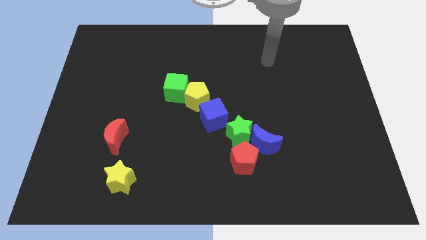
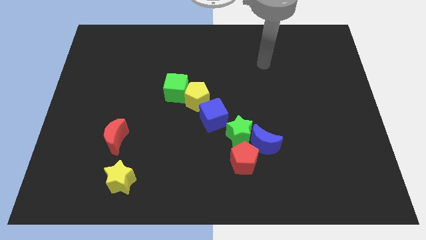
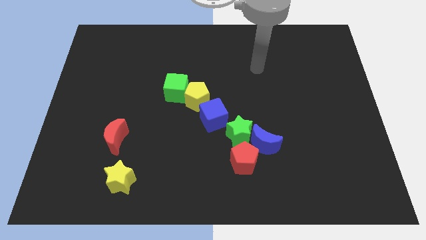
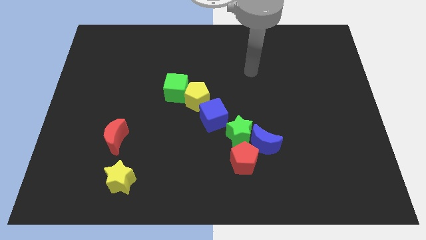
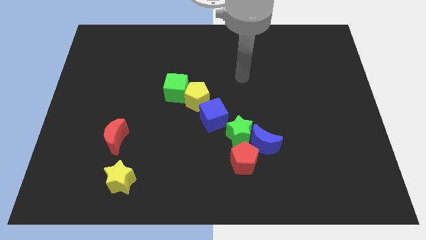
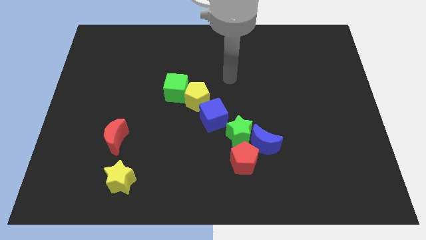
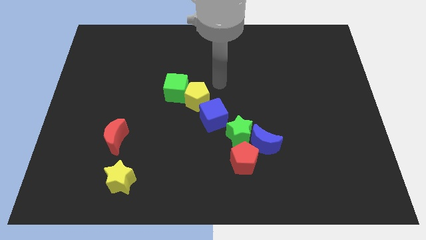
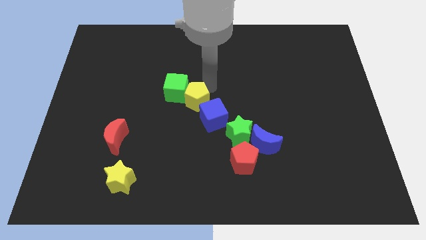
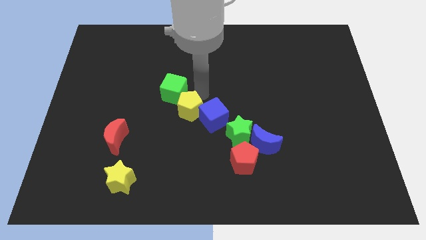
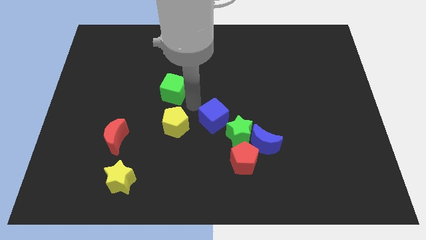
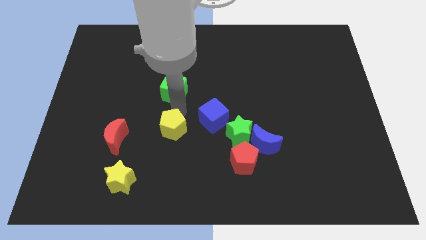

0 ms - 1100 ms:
separate the green cube from the yellow pentagon

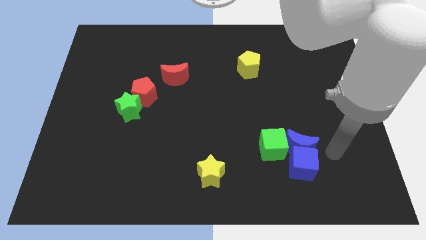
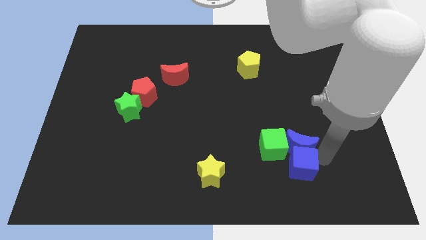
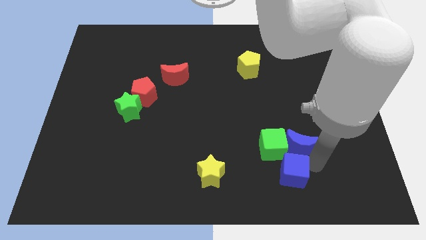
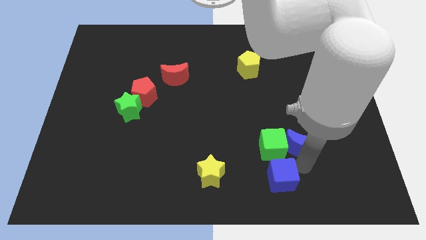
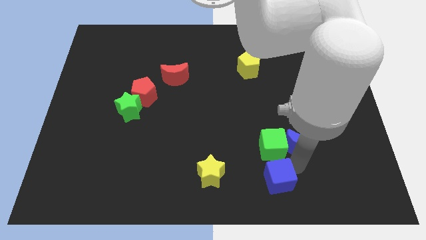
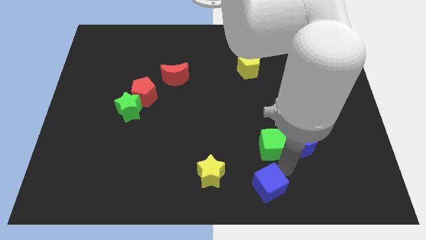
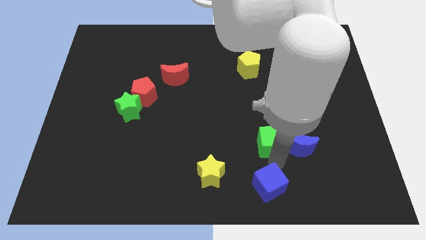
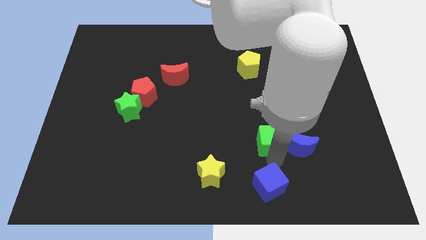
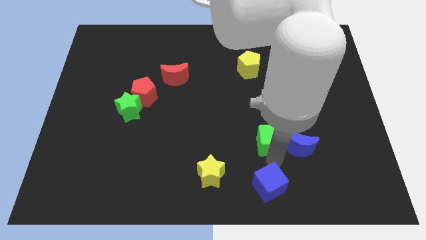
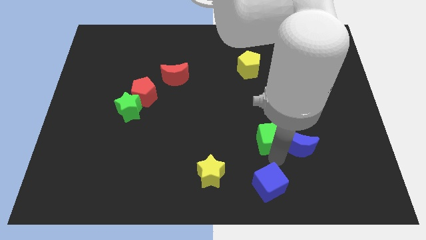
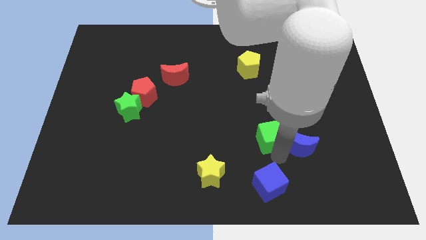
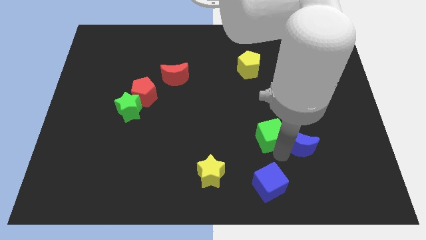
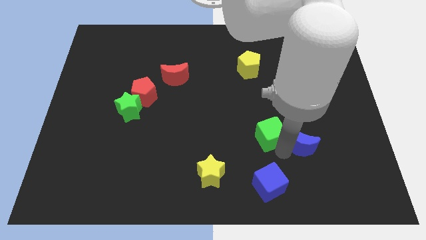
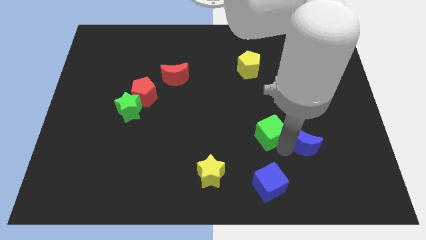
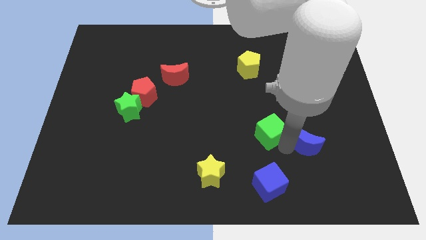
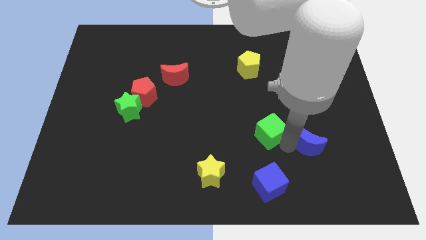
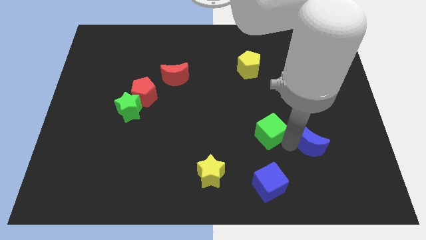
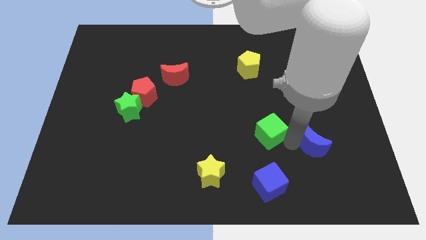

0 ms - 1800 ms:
separate the blue moon from the blue cube and green cube

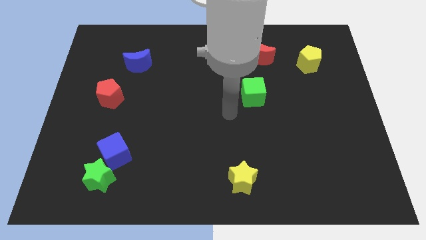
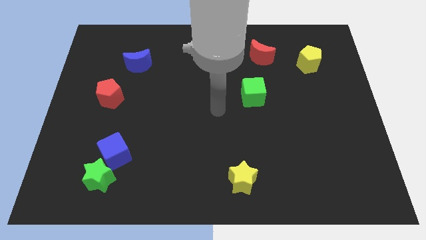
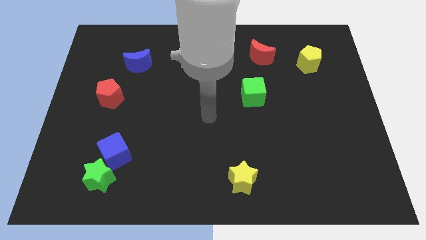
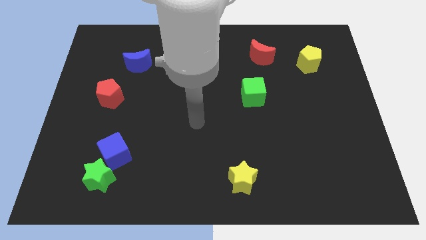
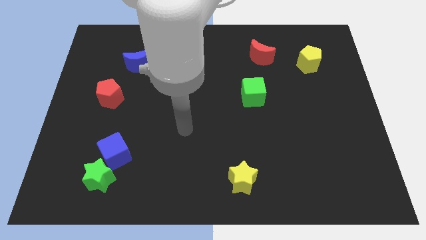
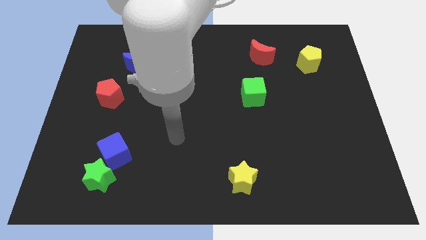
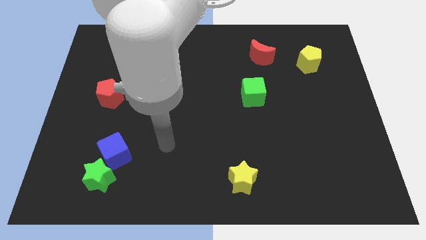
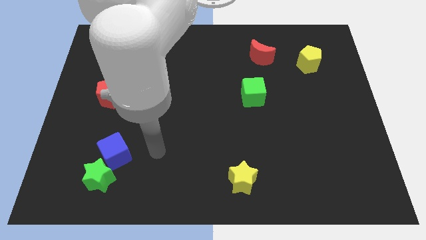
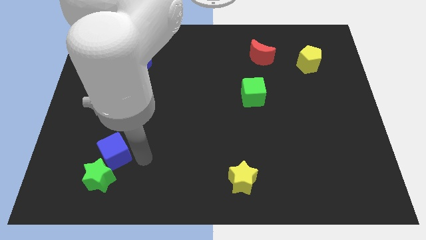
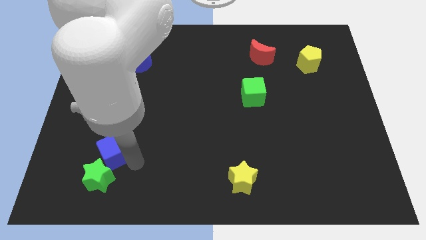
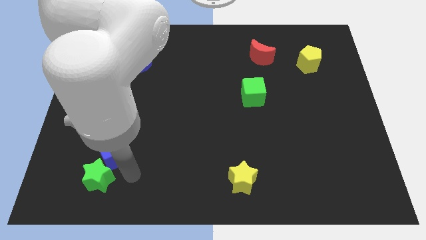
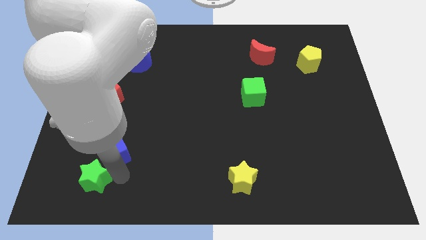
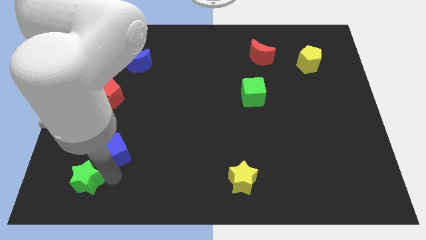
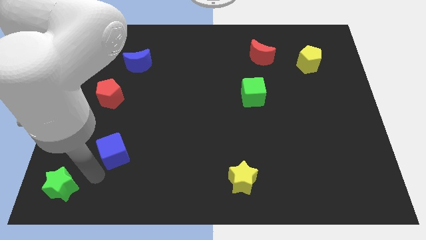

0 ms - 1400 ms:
move the blue cube away from the green star

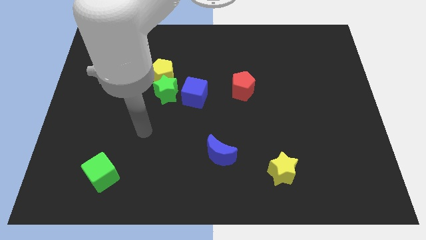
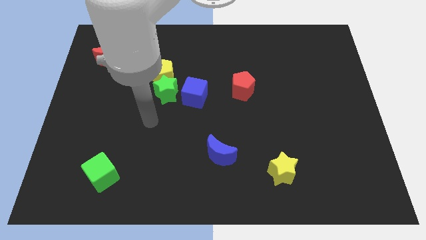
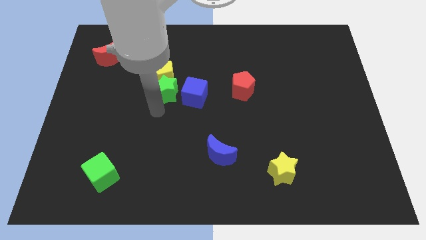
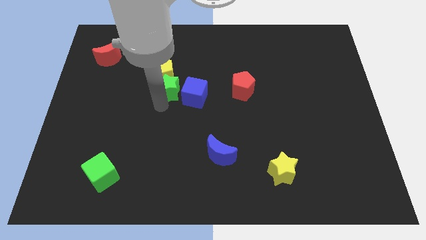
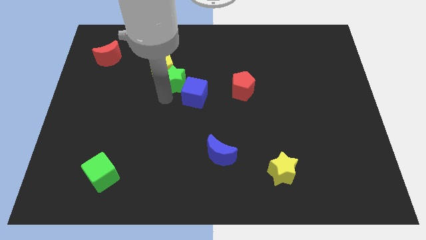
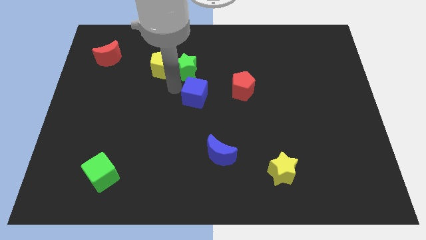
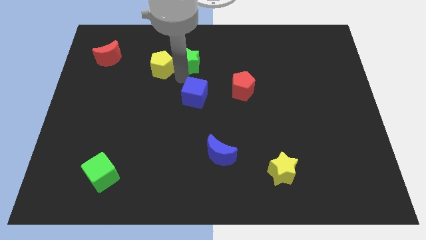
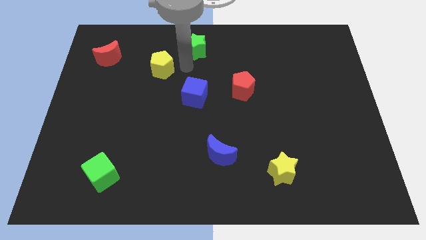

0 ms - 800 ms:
pull the yellow pentagon apart from the green star

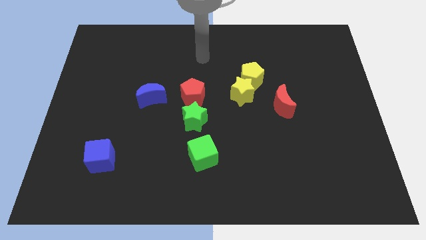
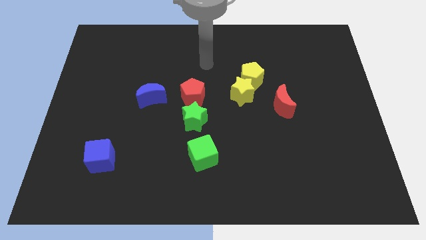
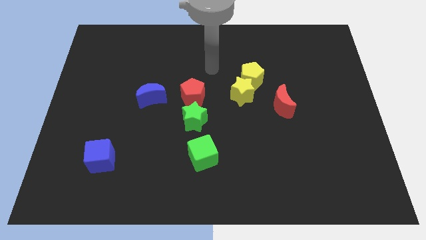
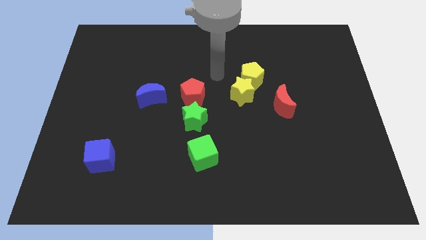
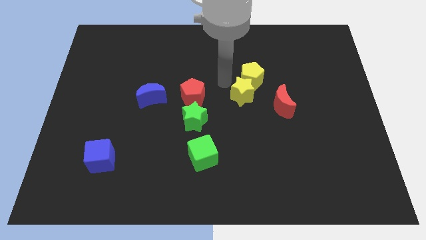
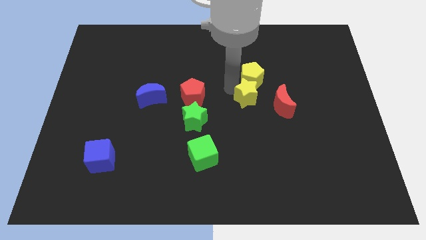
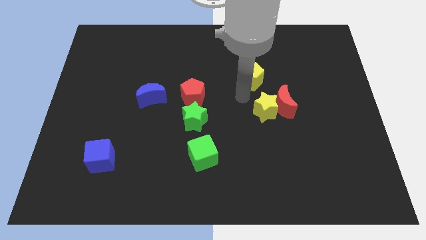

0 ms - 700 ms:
move the yellow pentagon away from the yellow star

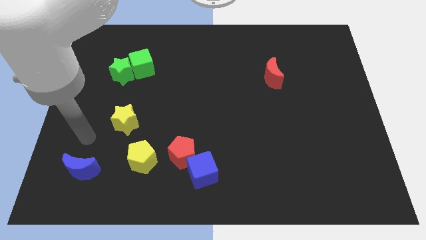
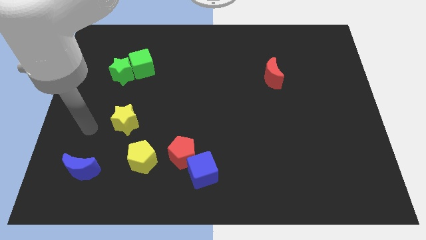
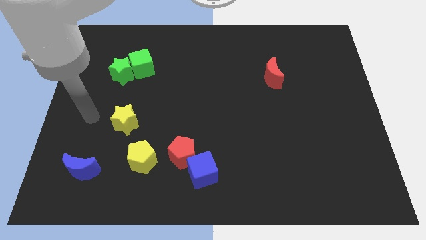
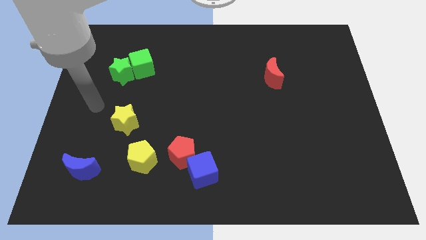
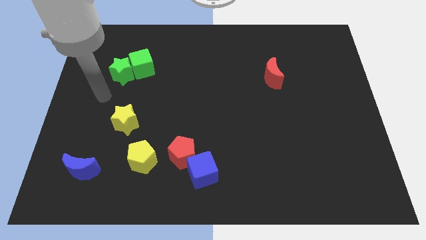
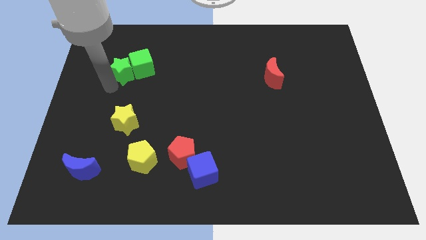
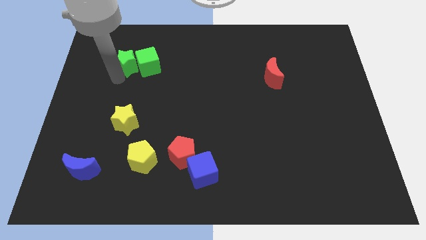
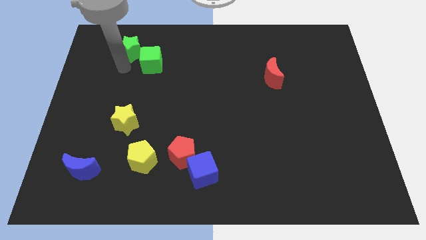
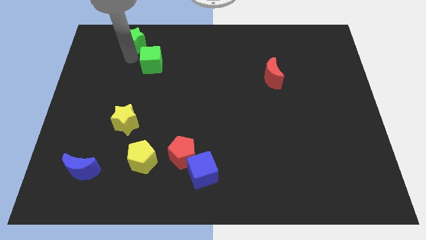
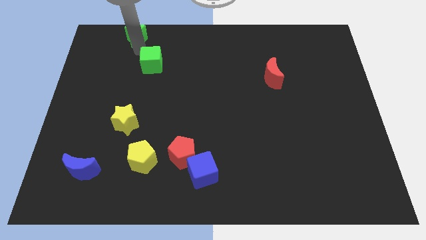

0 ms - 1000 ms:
move the green cube away from the green star

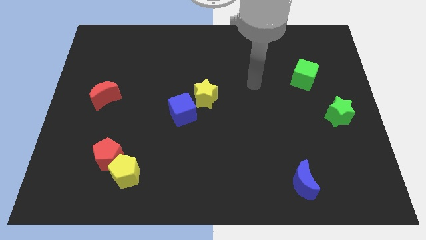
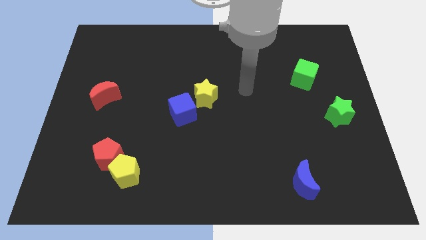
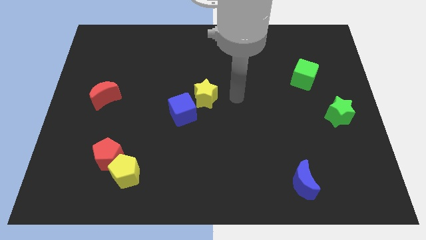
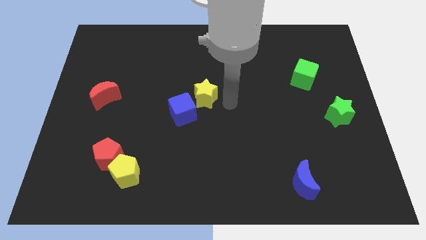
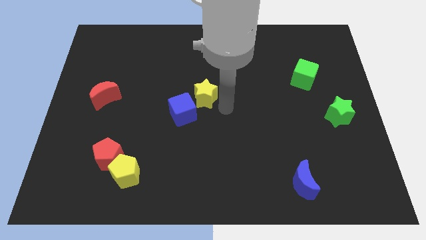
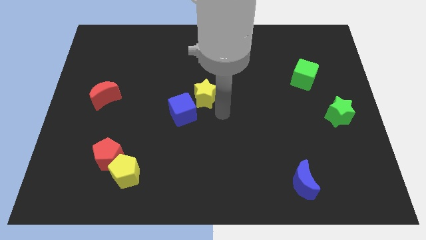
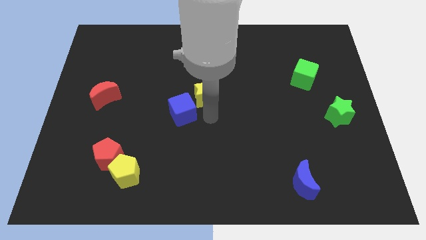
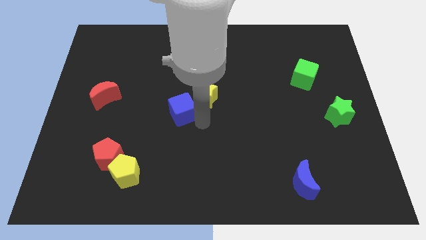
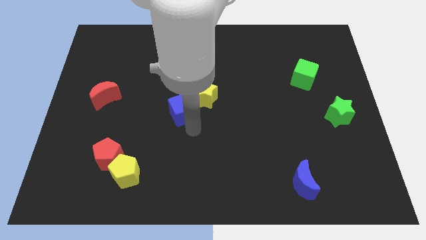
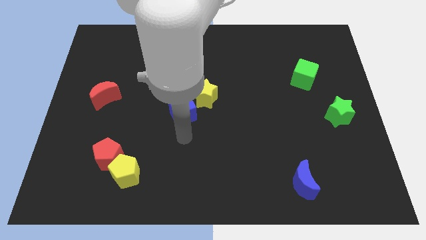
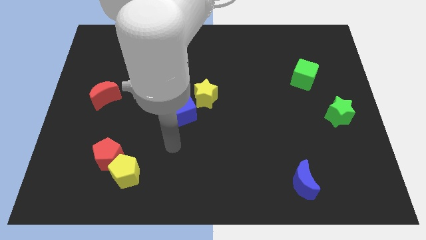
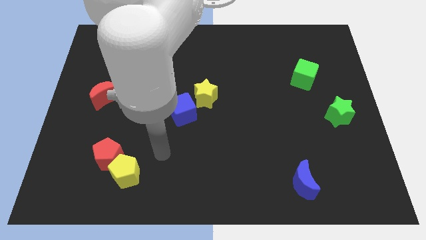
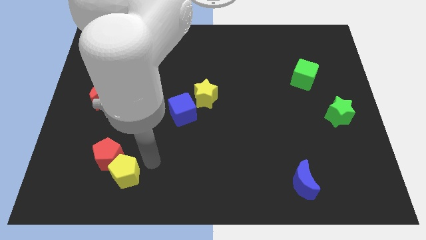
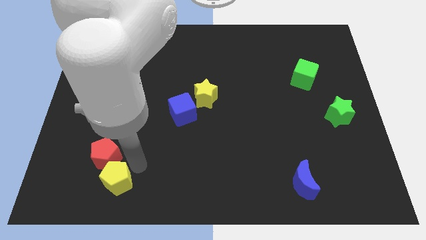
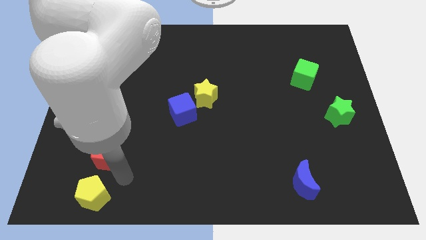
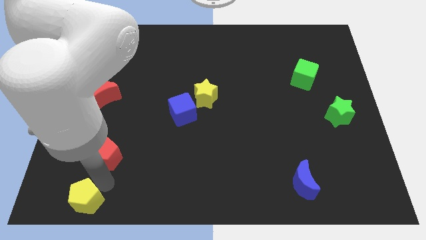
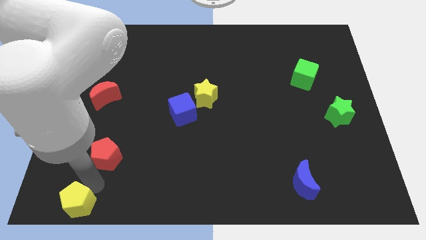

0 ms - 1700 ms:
move the red pentagon away from the yellow pentagon

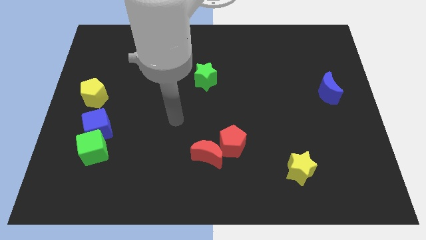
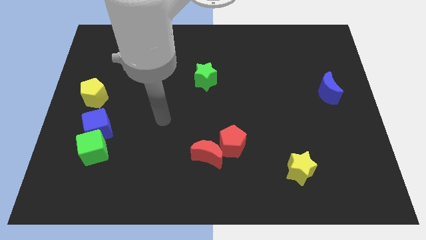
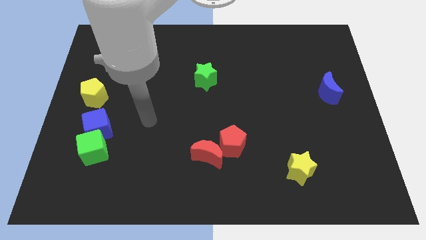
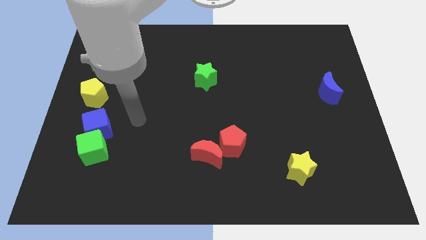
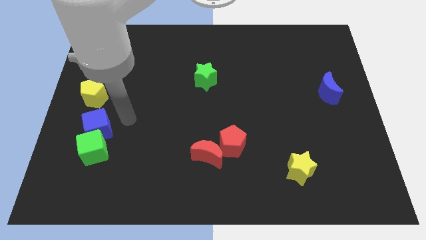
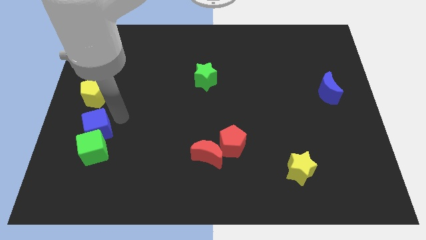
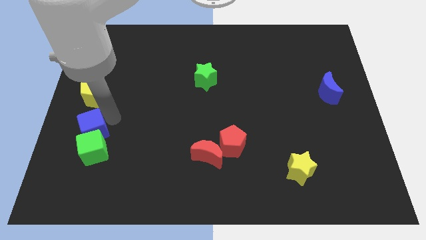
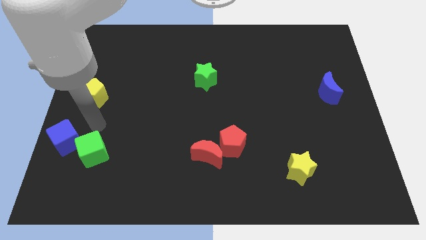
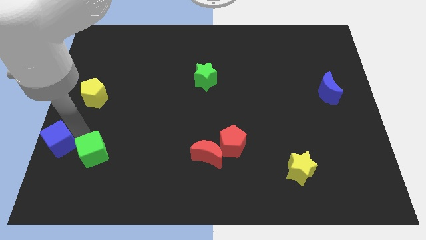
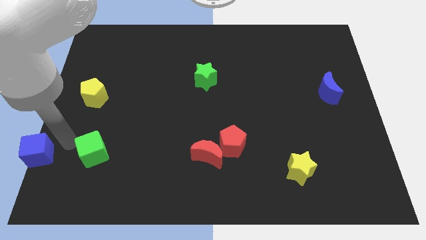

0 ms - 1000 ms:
separate the green cube from the blue cube
